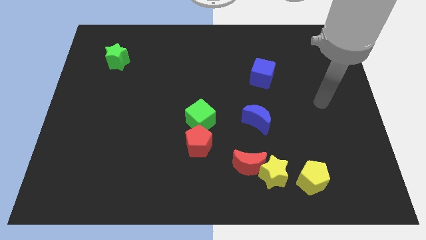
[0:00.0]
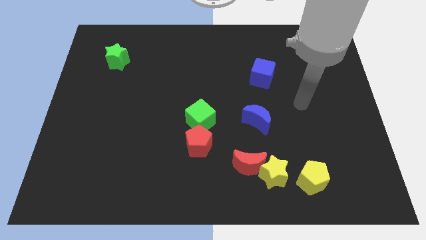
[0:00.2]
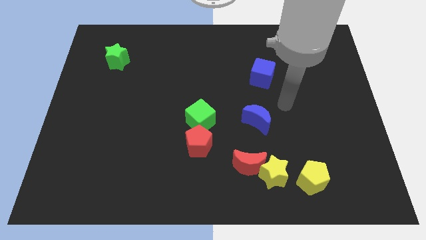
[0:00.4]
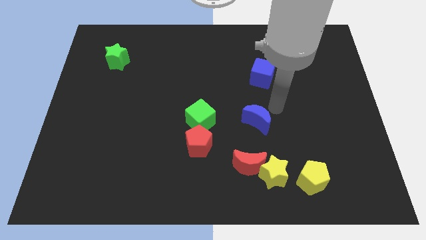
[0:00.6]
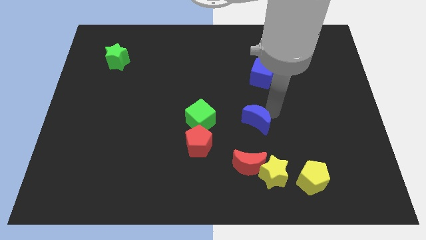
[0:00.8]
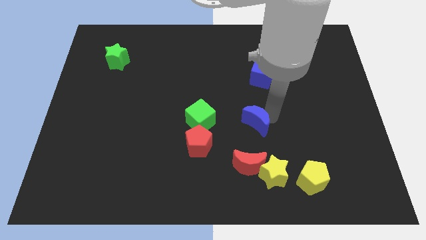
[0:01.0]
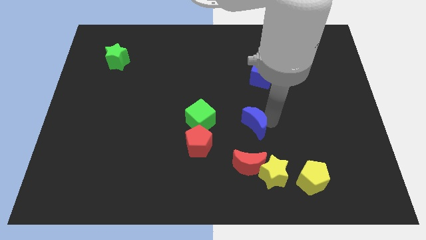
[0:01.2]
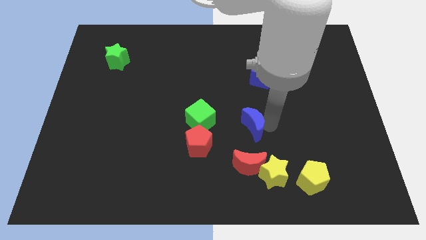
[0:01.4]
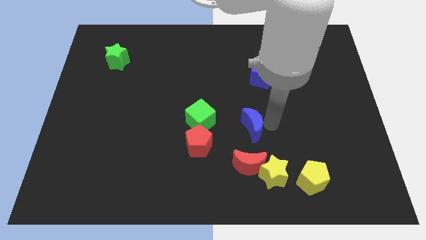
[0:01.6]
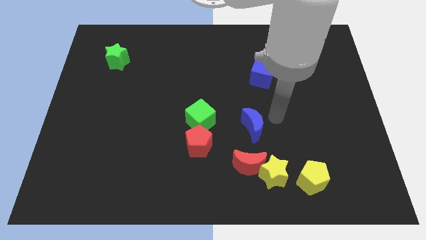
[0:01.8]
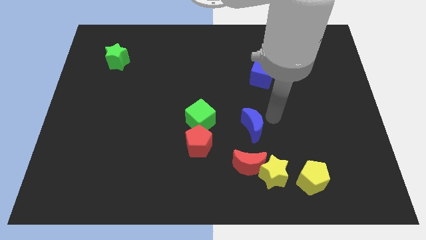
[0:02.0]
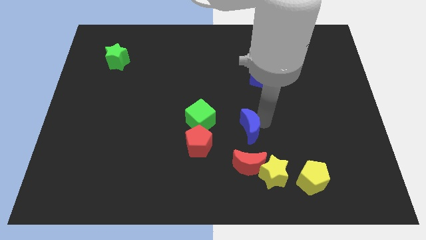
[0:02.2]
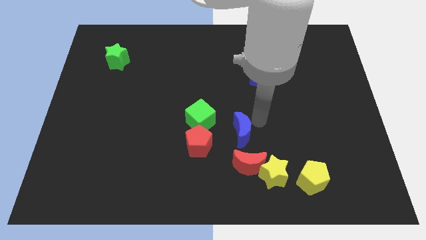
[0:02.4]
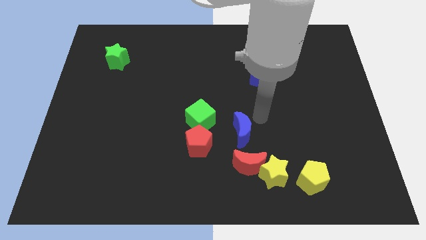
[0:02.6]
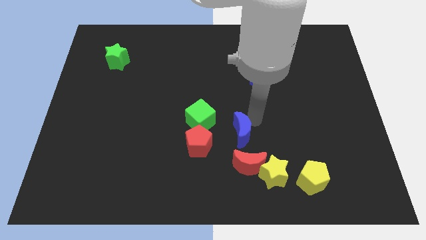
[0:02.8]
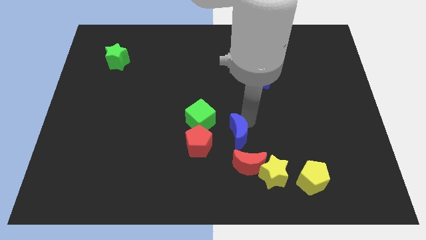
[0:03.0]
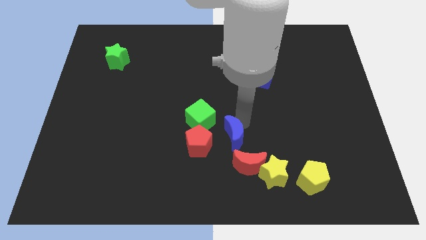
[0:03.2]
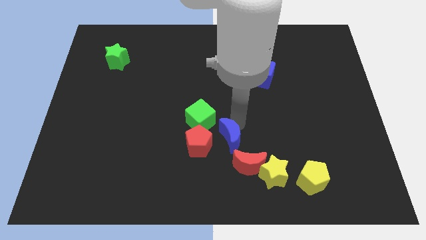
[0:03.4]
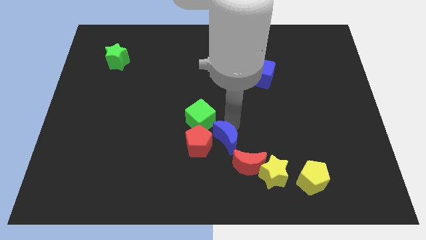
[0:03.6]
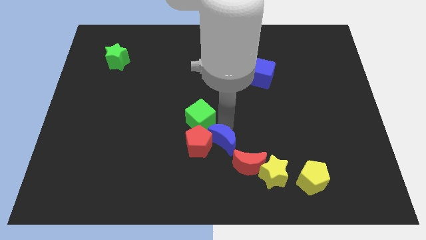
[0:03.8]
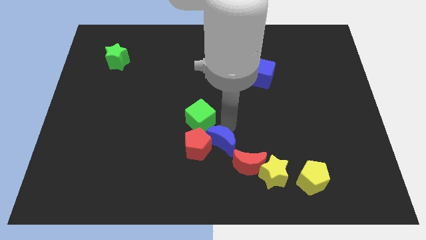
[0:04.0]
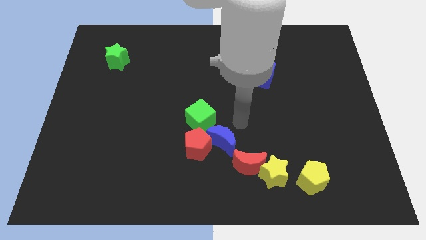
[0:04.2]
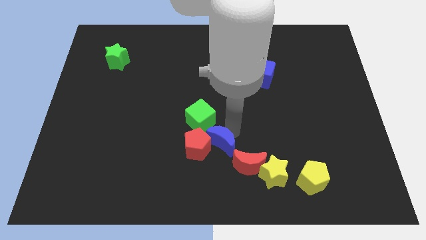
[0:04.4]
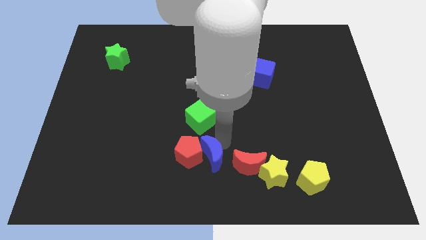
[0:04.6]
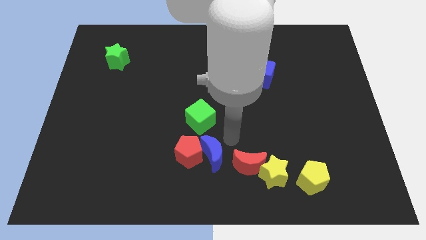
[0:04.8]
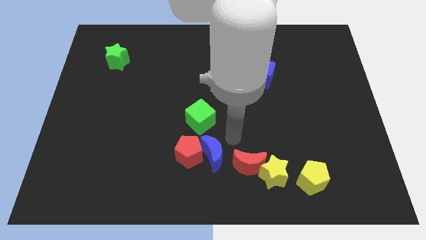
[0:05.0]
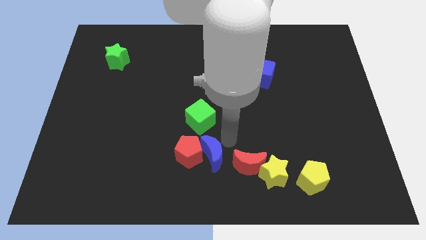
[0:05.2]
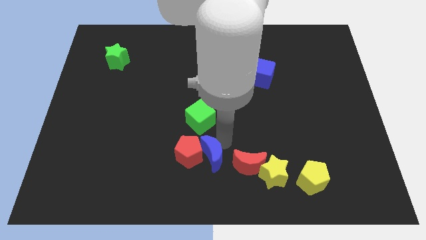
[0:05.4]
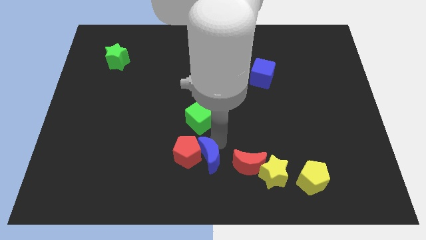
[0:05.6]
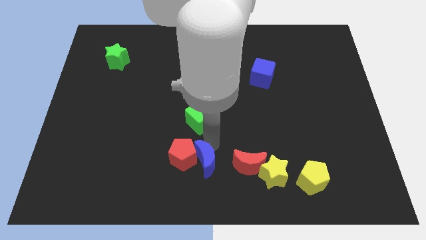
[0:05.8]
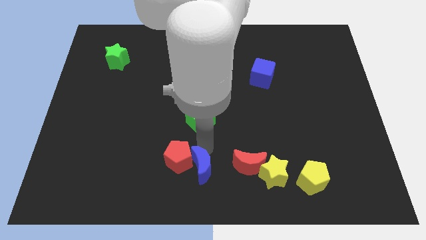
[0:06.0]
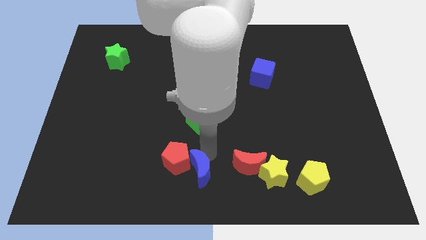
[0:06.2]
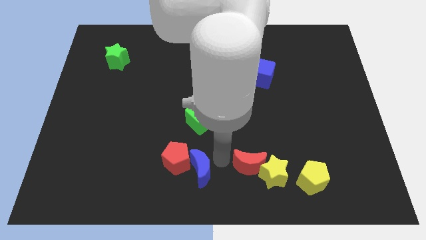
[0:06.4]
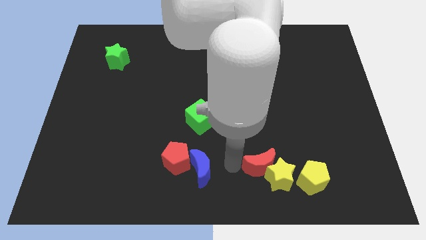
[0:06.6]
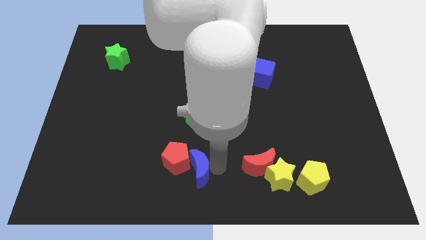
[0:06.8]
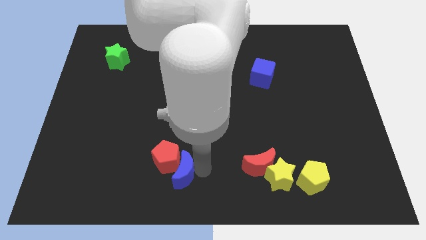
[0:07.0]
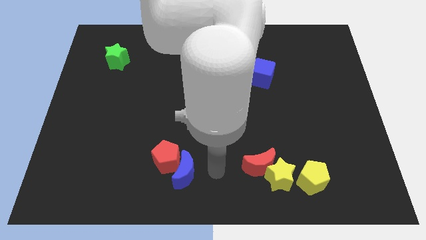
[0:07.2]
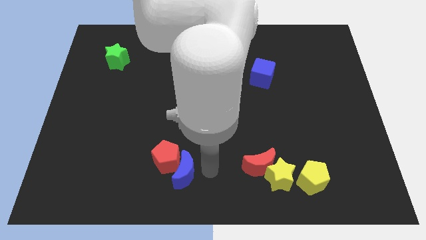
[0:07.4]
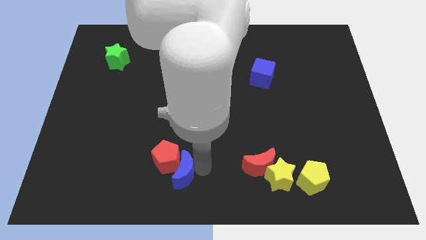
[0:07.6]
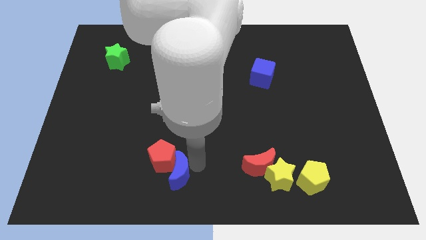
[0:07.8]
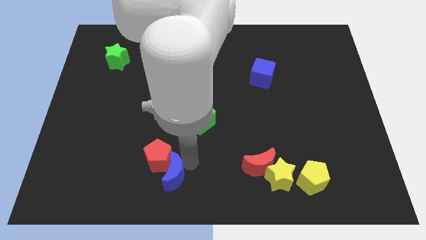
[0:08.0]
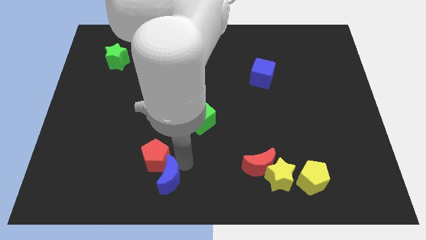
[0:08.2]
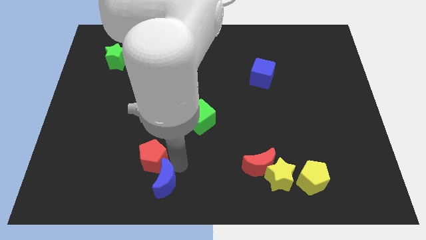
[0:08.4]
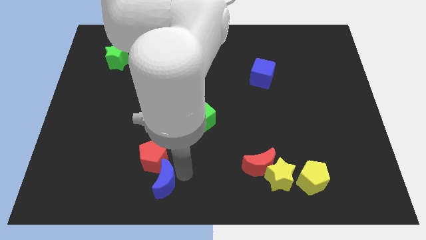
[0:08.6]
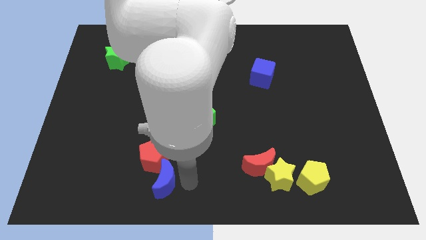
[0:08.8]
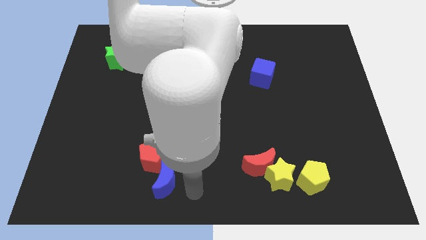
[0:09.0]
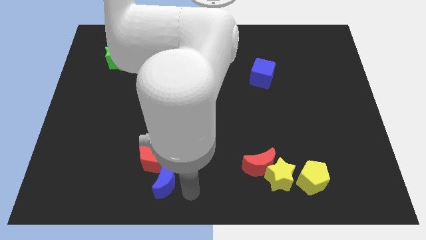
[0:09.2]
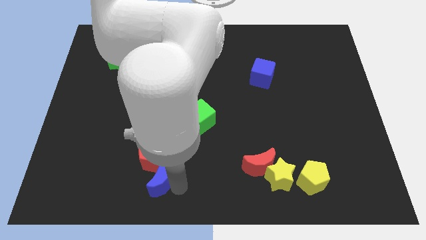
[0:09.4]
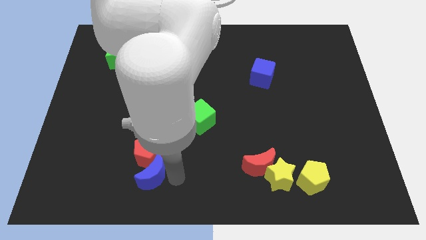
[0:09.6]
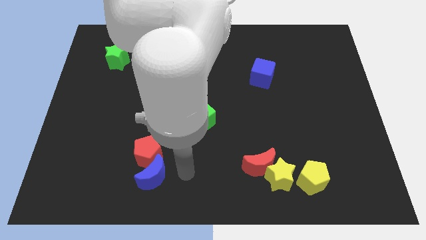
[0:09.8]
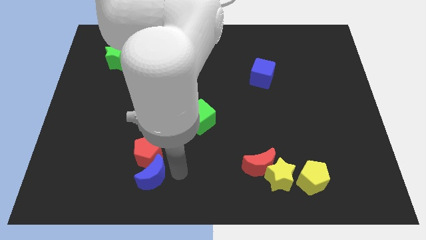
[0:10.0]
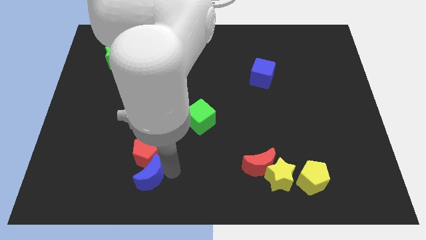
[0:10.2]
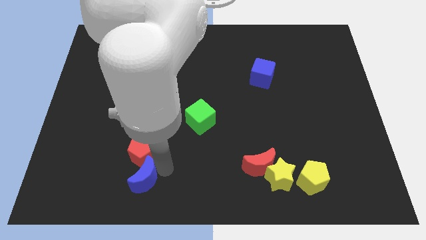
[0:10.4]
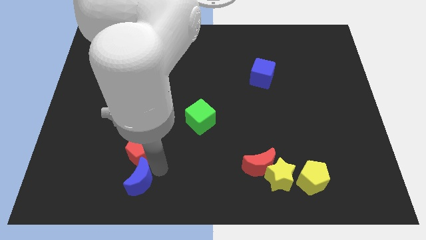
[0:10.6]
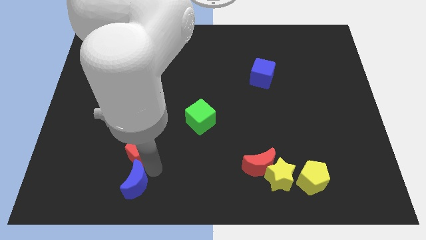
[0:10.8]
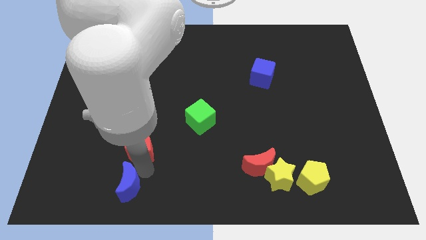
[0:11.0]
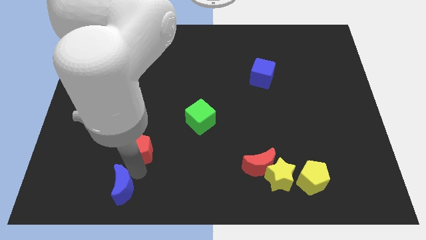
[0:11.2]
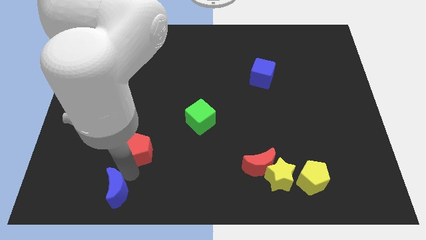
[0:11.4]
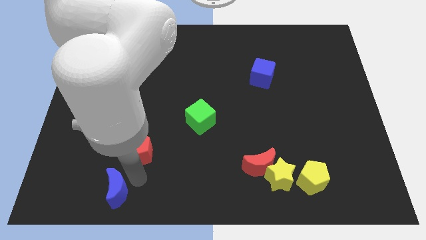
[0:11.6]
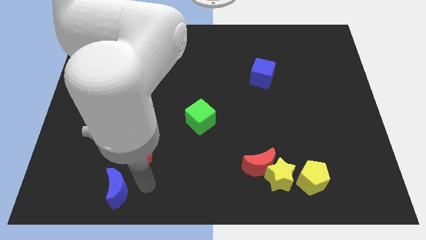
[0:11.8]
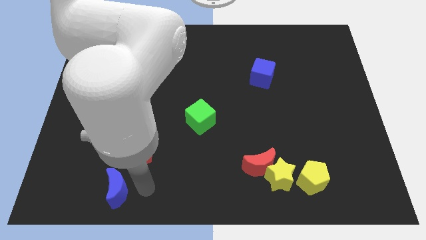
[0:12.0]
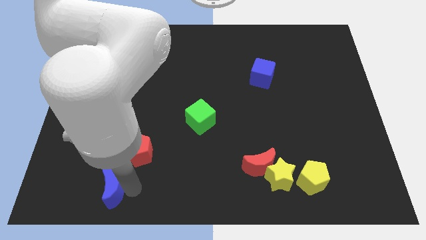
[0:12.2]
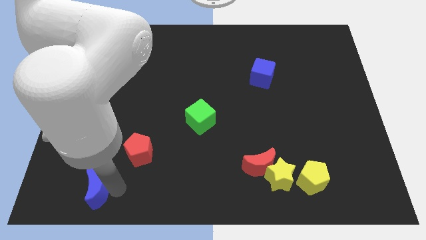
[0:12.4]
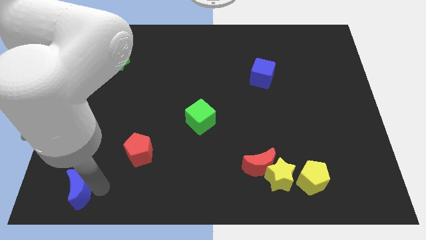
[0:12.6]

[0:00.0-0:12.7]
push the blue moon to the lower left corner
